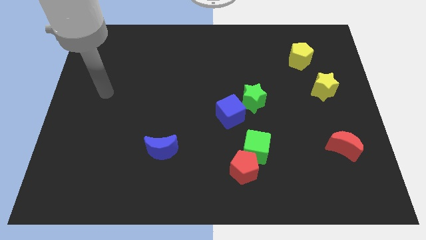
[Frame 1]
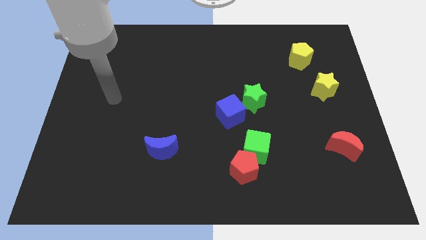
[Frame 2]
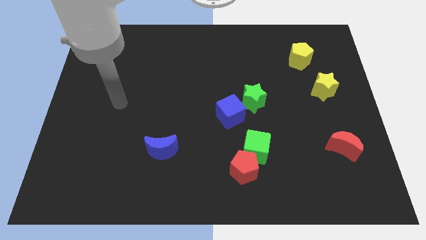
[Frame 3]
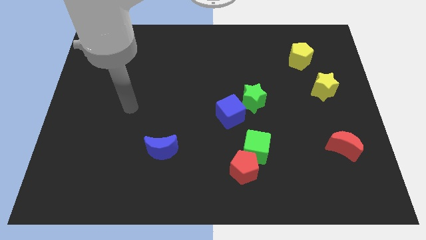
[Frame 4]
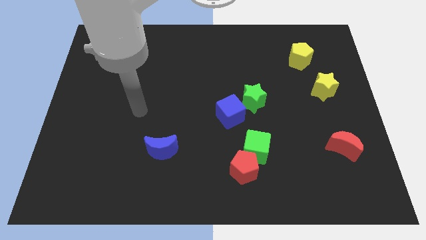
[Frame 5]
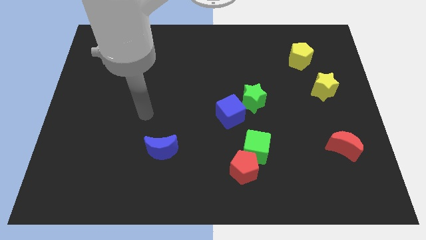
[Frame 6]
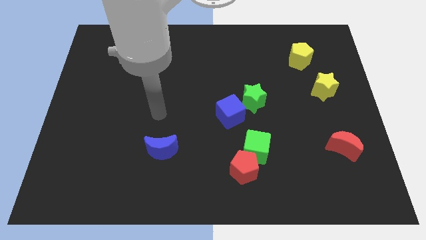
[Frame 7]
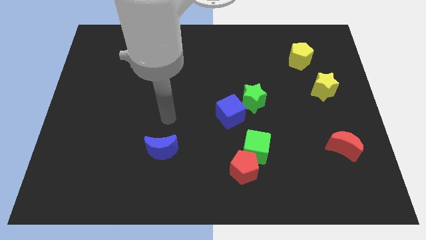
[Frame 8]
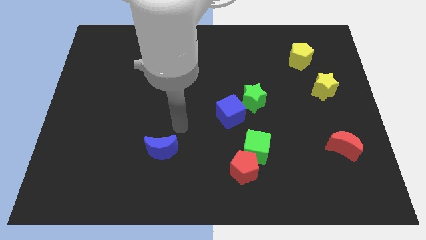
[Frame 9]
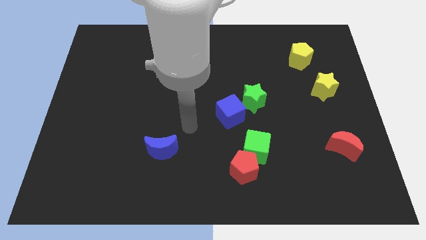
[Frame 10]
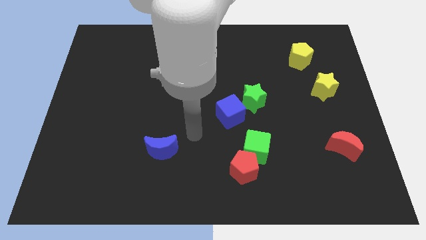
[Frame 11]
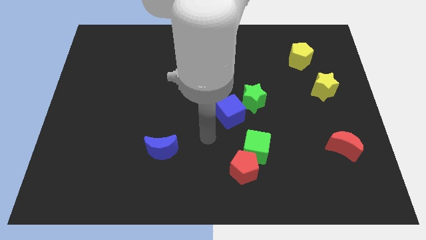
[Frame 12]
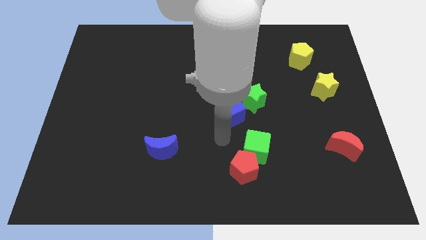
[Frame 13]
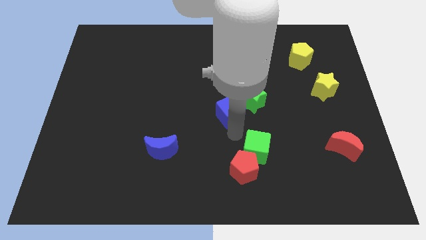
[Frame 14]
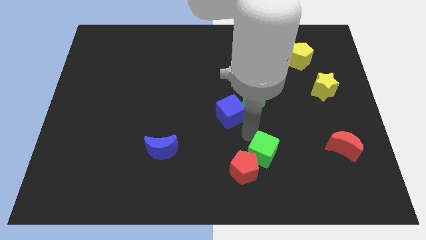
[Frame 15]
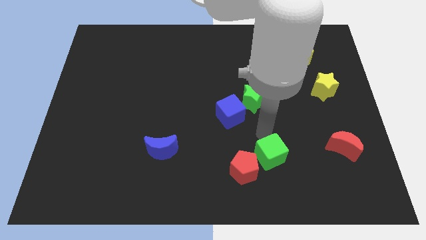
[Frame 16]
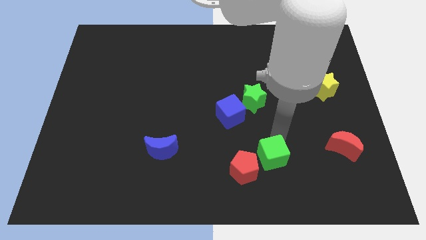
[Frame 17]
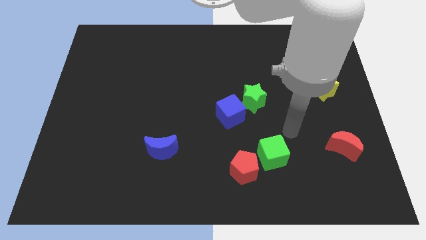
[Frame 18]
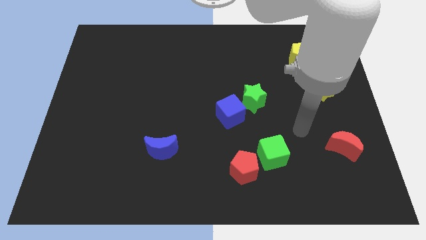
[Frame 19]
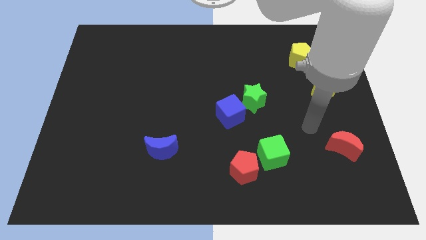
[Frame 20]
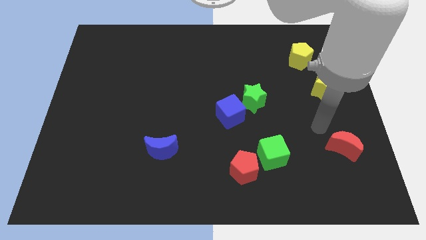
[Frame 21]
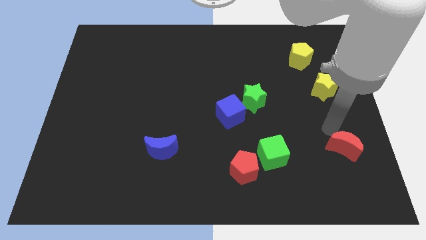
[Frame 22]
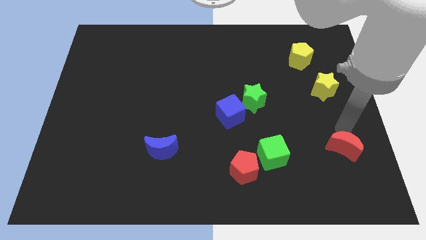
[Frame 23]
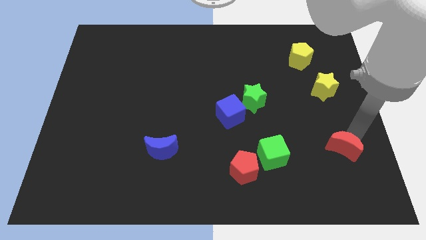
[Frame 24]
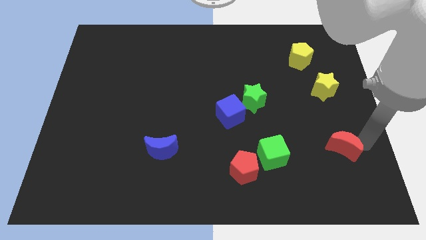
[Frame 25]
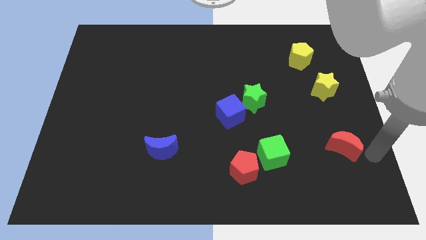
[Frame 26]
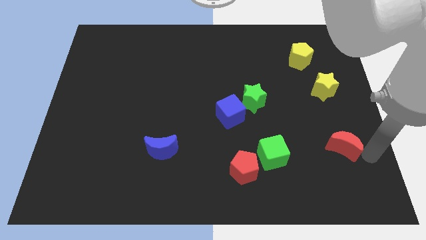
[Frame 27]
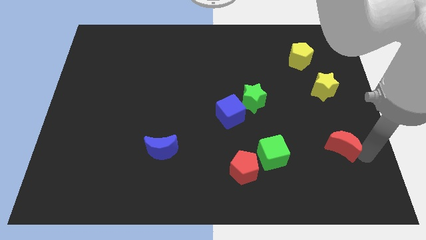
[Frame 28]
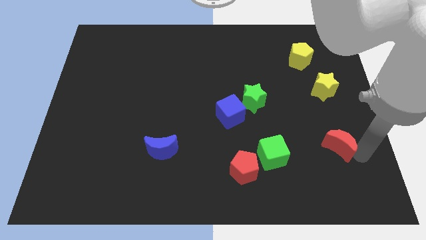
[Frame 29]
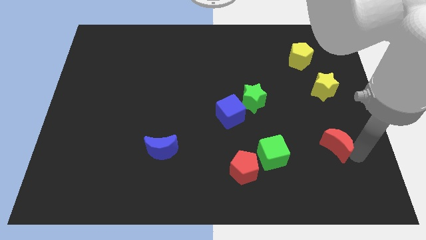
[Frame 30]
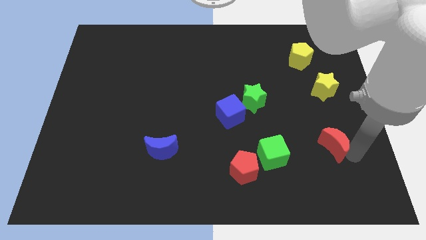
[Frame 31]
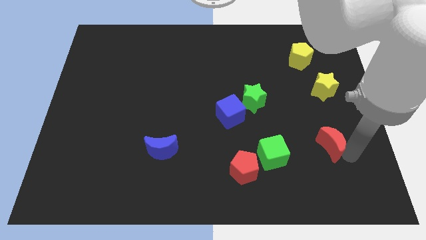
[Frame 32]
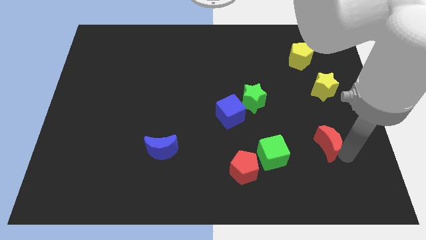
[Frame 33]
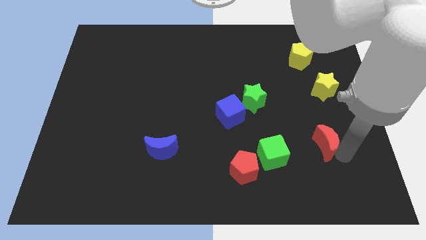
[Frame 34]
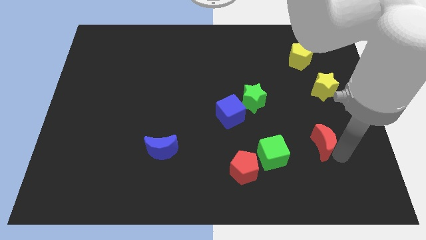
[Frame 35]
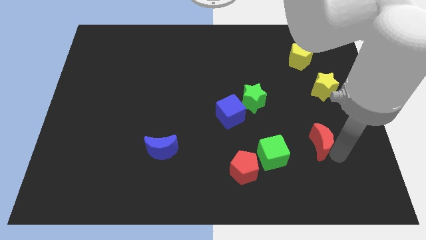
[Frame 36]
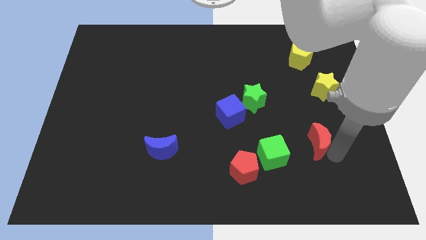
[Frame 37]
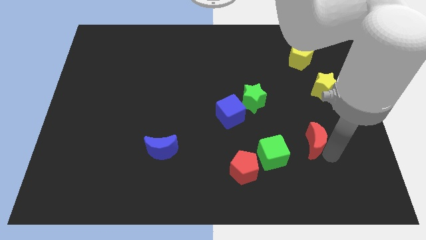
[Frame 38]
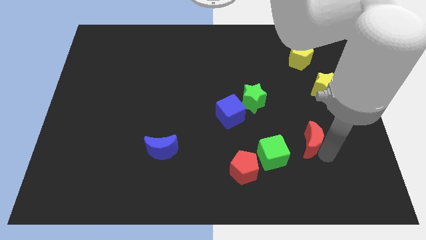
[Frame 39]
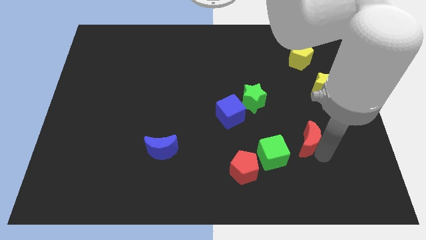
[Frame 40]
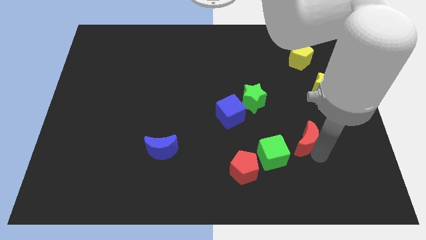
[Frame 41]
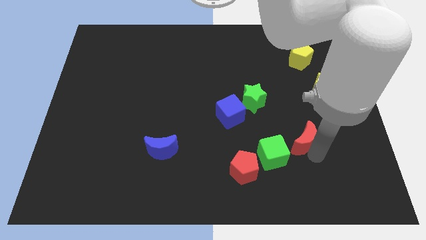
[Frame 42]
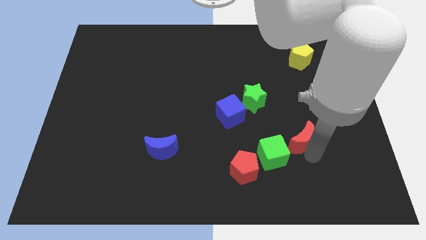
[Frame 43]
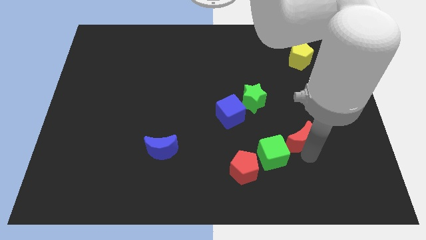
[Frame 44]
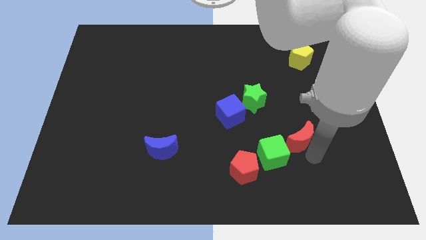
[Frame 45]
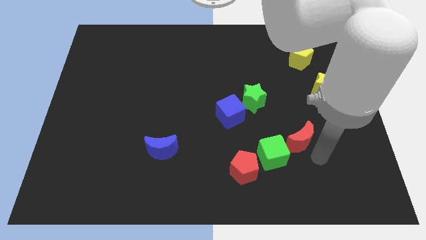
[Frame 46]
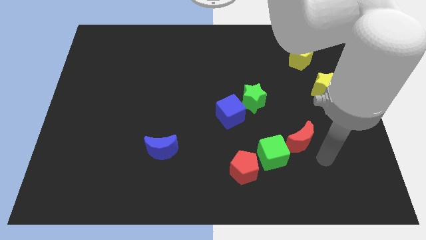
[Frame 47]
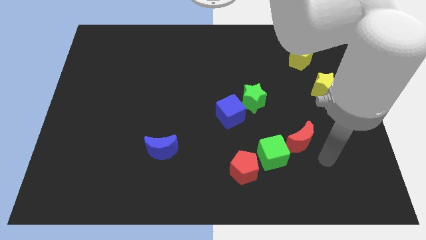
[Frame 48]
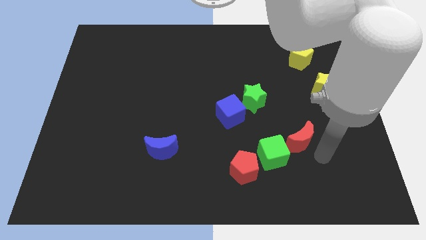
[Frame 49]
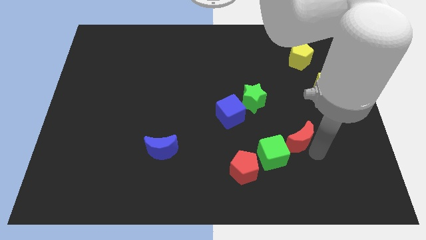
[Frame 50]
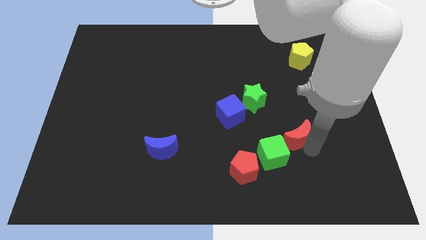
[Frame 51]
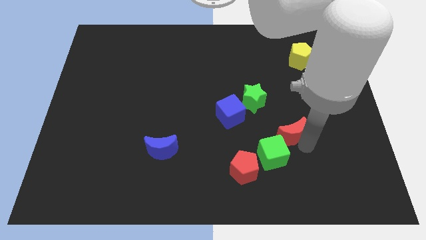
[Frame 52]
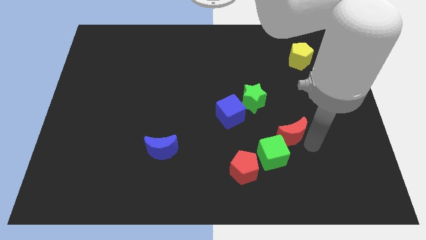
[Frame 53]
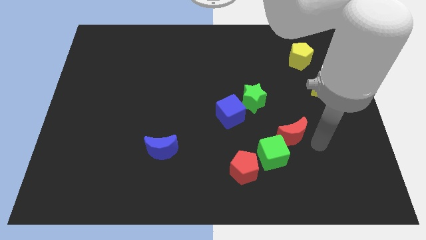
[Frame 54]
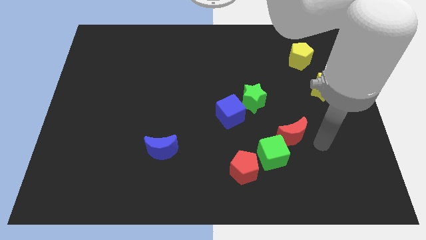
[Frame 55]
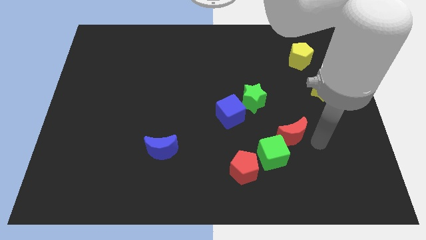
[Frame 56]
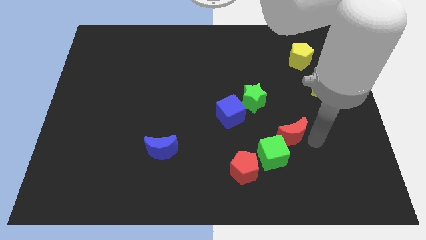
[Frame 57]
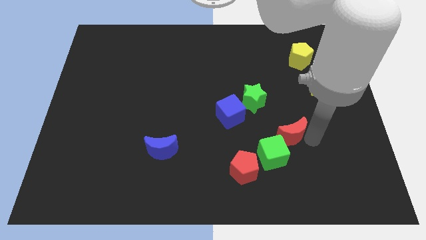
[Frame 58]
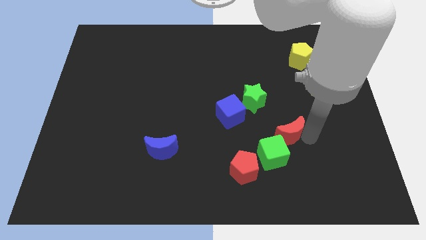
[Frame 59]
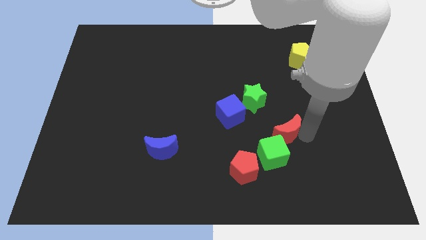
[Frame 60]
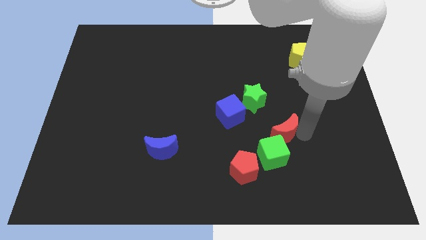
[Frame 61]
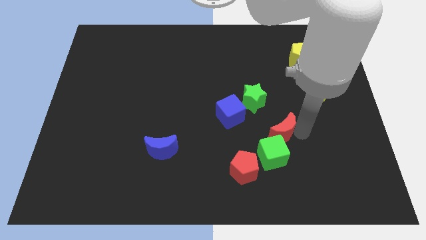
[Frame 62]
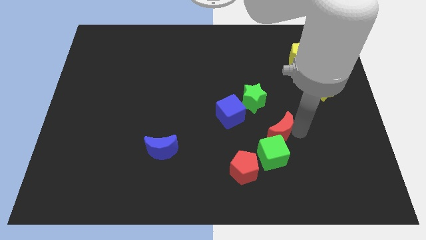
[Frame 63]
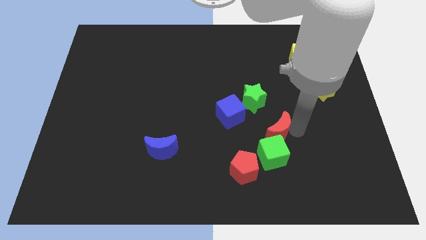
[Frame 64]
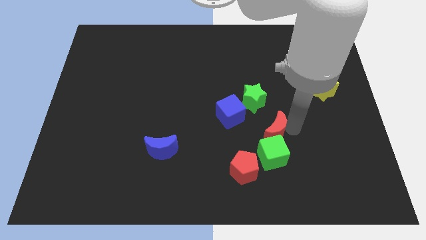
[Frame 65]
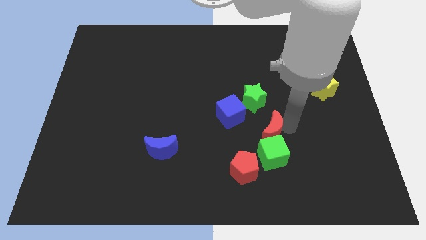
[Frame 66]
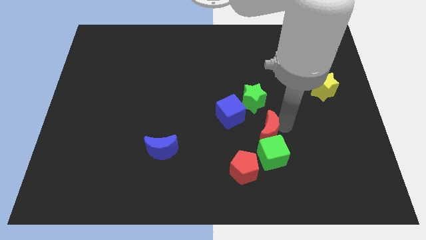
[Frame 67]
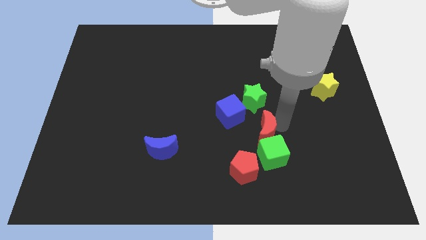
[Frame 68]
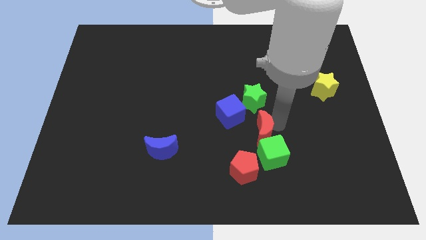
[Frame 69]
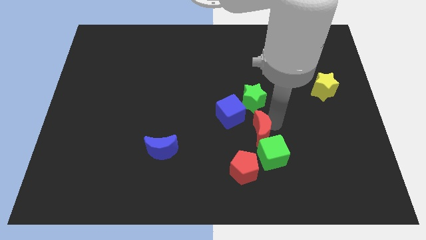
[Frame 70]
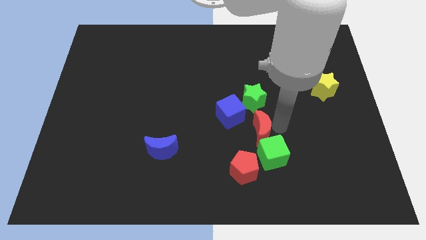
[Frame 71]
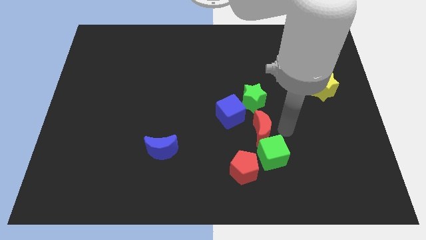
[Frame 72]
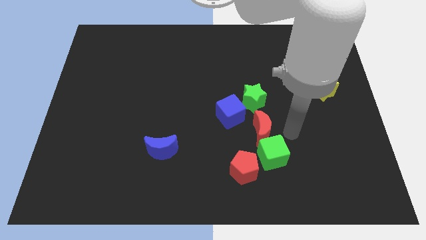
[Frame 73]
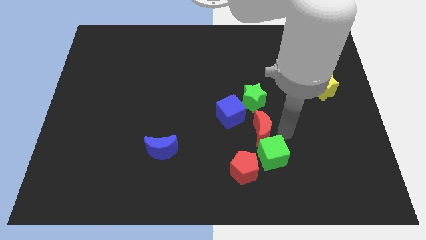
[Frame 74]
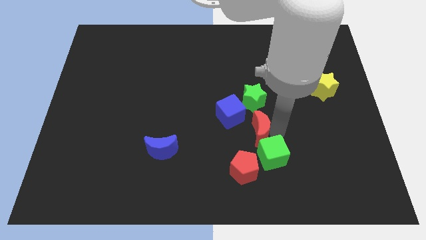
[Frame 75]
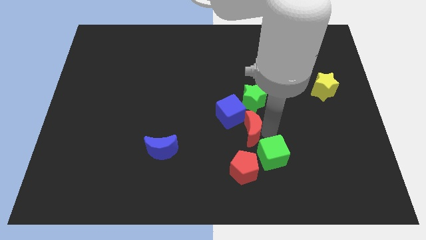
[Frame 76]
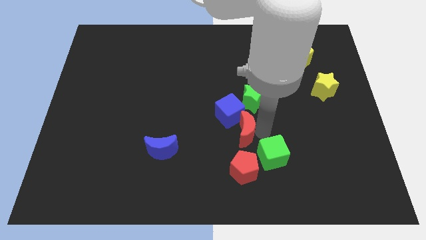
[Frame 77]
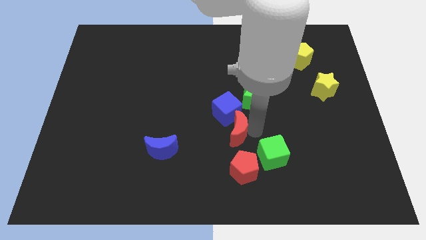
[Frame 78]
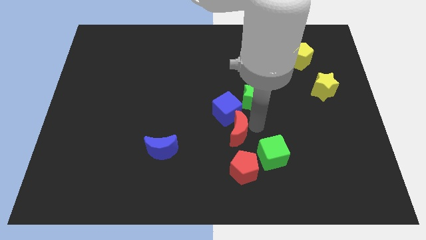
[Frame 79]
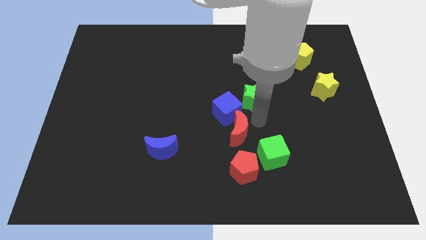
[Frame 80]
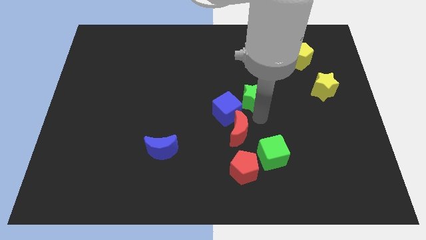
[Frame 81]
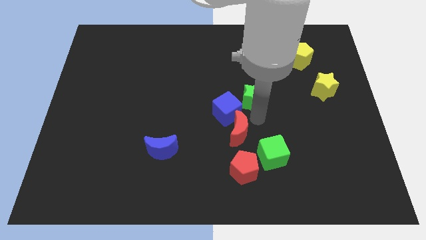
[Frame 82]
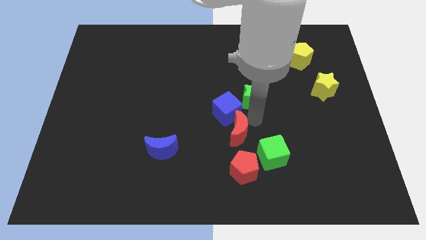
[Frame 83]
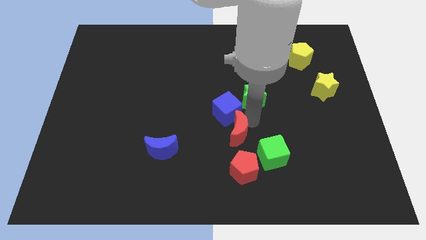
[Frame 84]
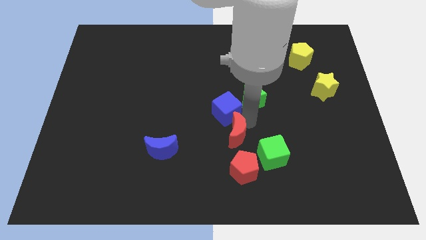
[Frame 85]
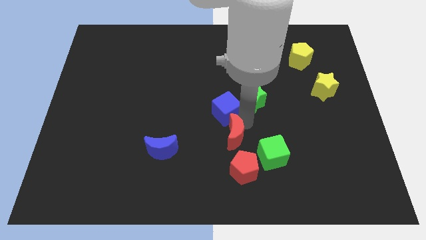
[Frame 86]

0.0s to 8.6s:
slide the red moon to the top left side of the red pentagon
